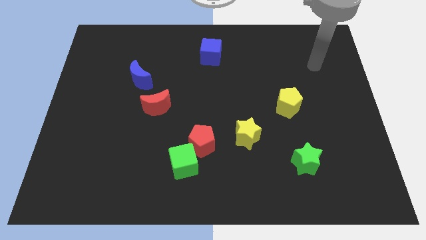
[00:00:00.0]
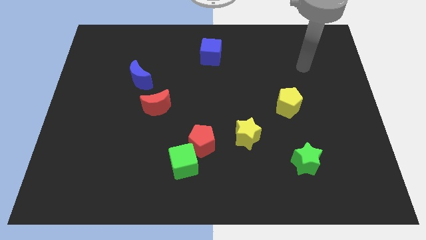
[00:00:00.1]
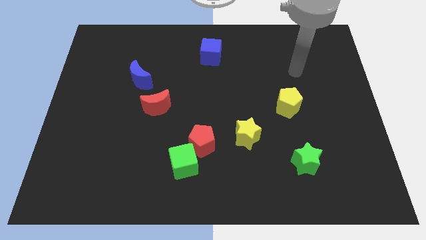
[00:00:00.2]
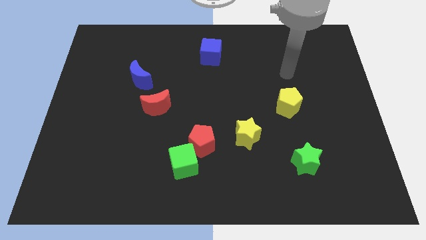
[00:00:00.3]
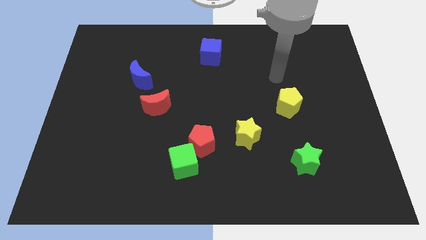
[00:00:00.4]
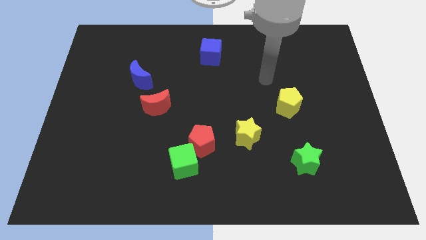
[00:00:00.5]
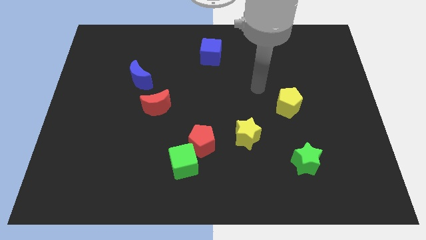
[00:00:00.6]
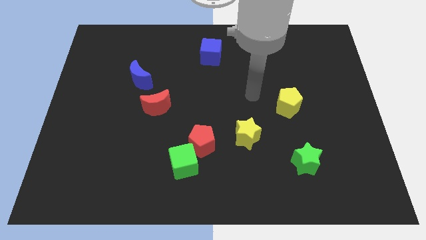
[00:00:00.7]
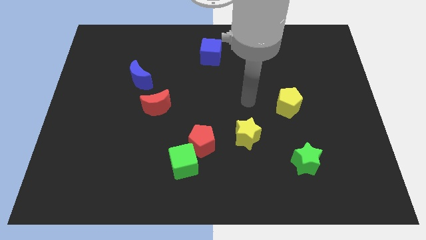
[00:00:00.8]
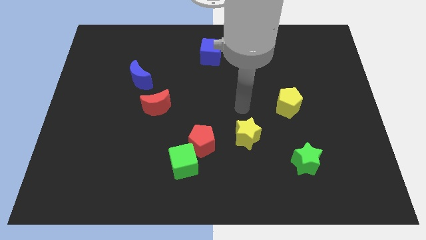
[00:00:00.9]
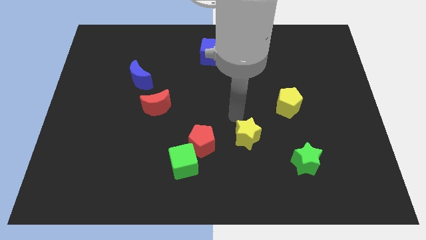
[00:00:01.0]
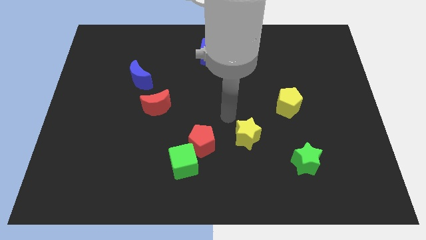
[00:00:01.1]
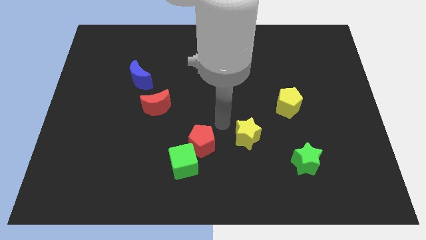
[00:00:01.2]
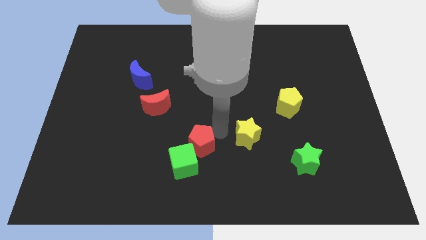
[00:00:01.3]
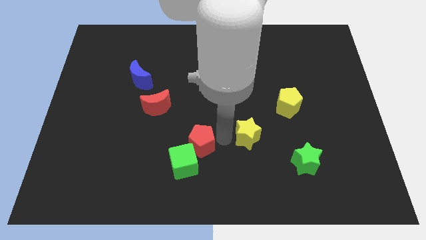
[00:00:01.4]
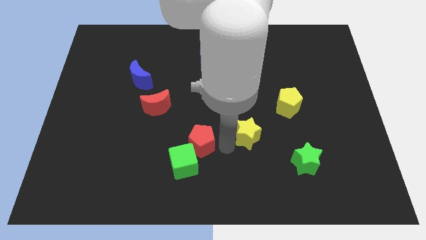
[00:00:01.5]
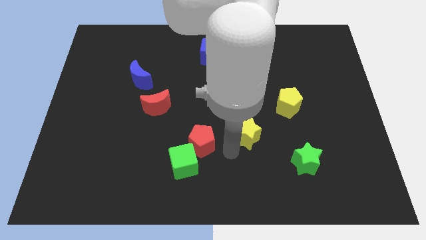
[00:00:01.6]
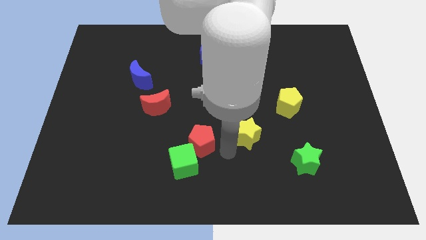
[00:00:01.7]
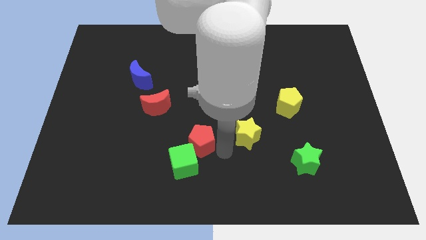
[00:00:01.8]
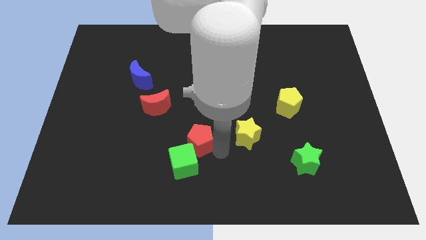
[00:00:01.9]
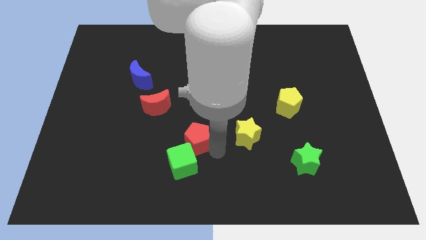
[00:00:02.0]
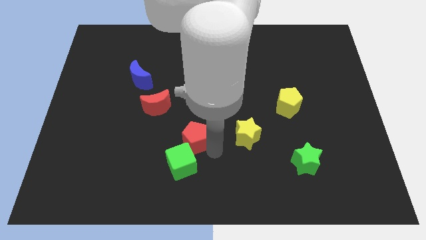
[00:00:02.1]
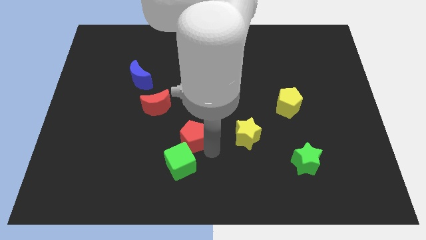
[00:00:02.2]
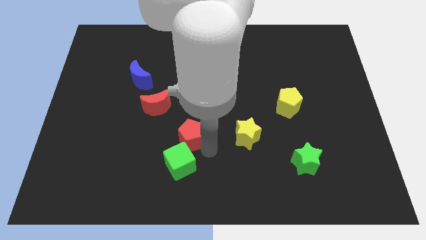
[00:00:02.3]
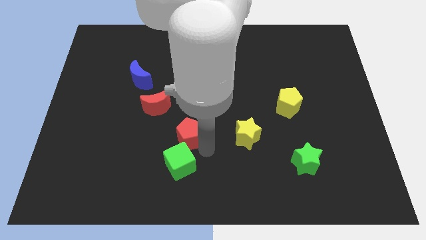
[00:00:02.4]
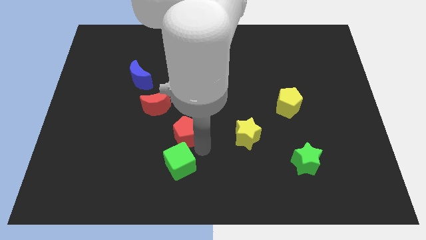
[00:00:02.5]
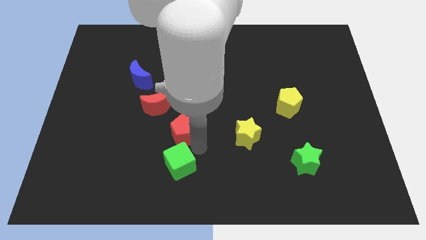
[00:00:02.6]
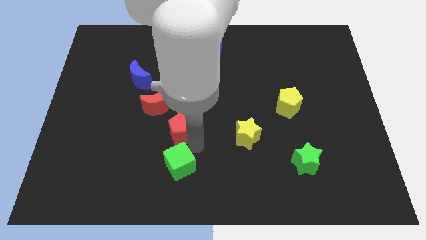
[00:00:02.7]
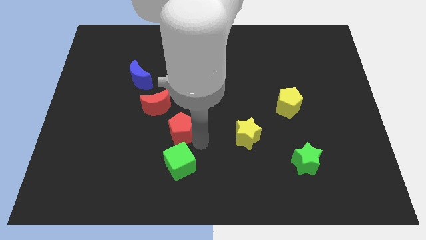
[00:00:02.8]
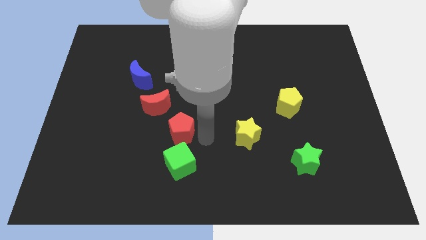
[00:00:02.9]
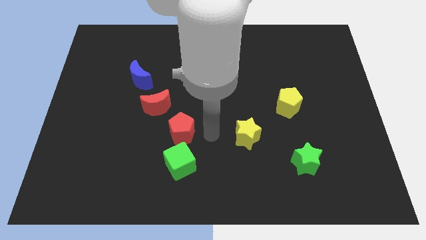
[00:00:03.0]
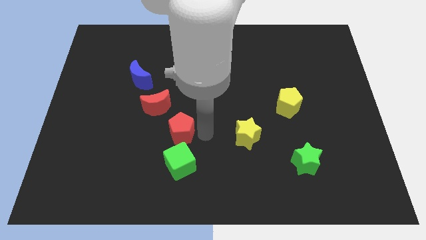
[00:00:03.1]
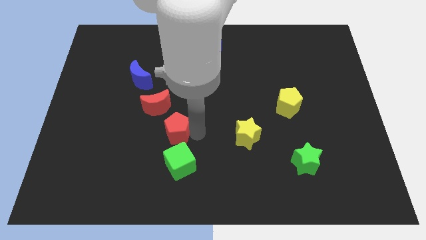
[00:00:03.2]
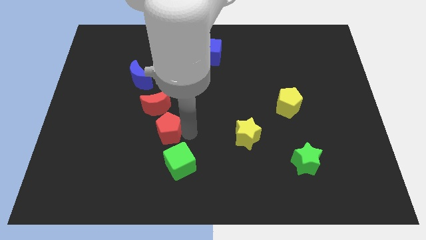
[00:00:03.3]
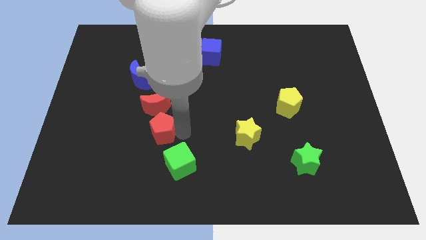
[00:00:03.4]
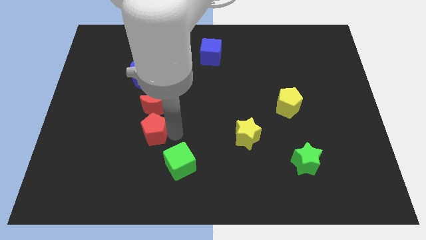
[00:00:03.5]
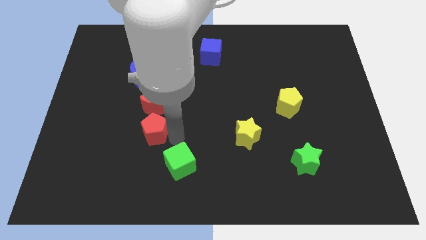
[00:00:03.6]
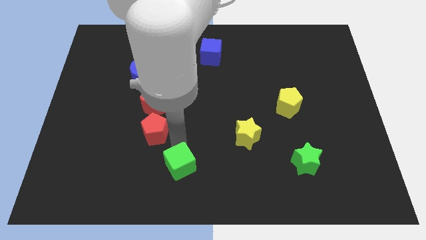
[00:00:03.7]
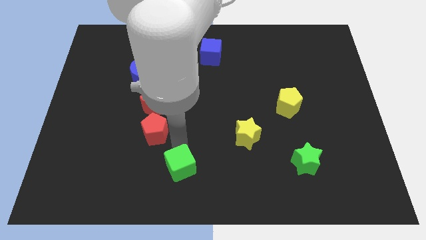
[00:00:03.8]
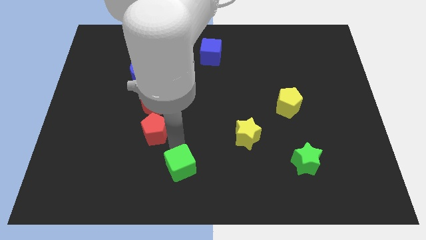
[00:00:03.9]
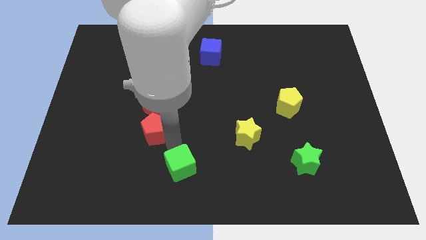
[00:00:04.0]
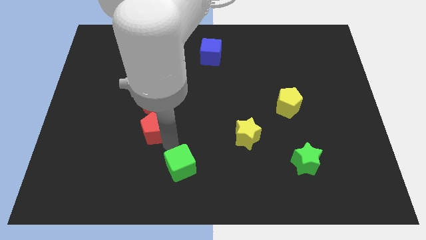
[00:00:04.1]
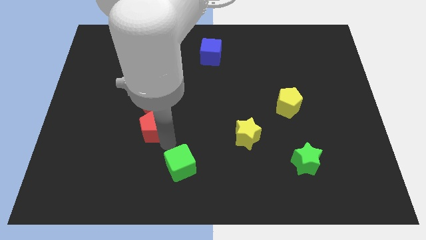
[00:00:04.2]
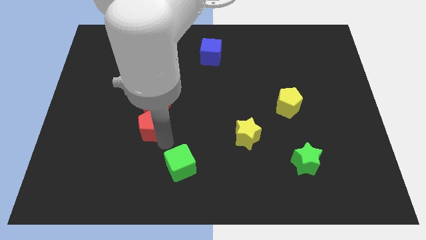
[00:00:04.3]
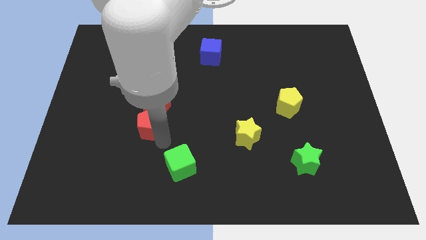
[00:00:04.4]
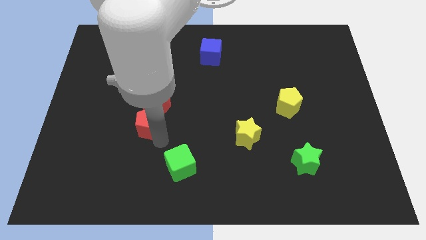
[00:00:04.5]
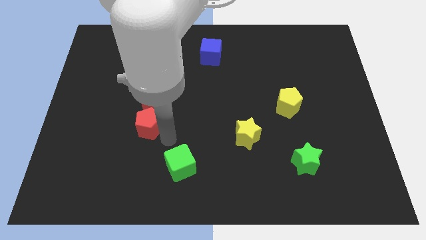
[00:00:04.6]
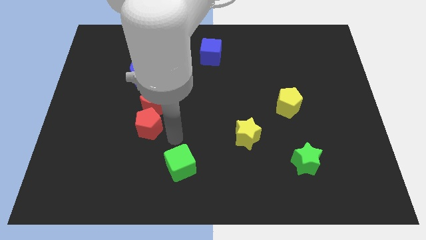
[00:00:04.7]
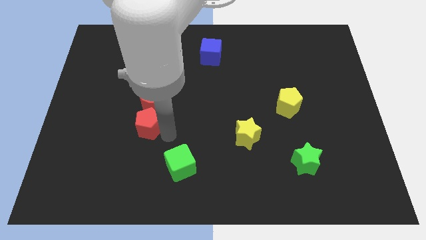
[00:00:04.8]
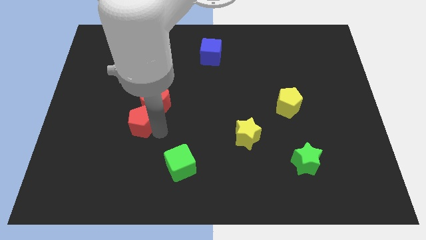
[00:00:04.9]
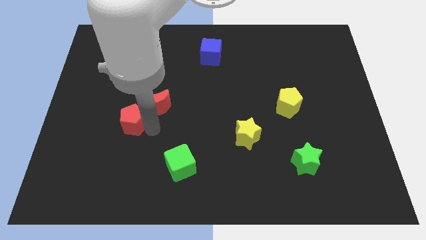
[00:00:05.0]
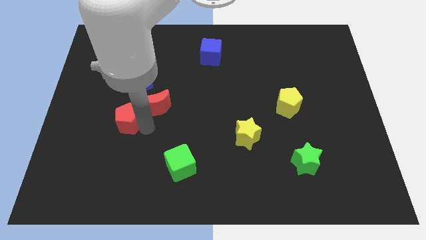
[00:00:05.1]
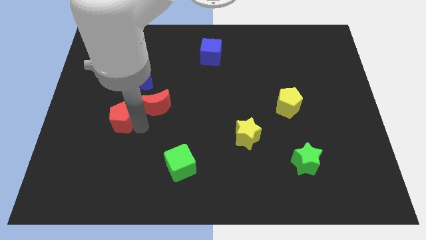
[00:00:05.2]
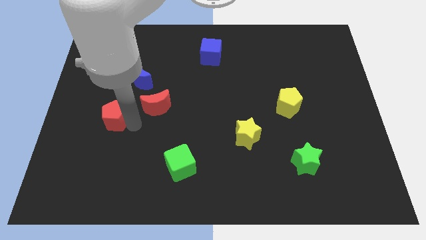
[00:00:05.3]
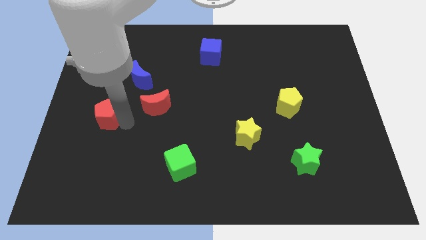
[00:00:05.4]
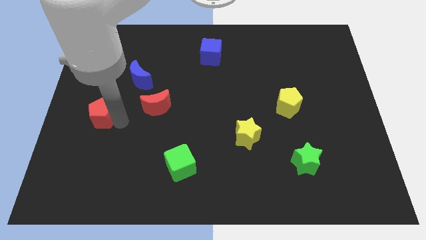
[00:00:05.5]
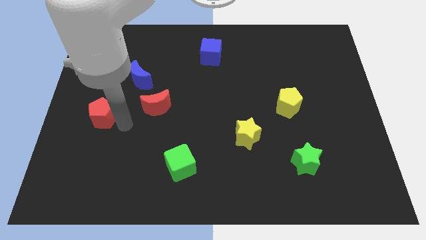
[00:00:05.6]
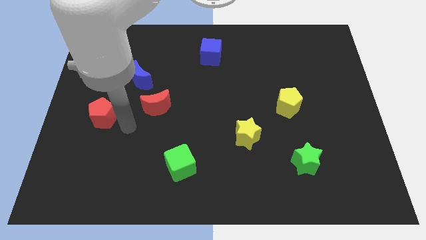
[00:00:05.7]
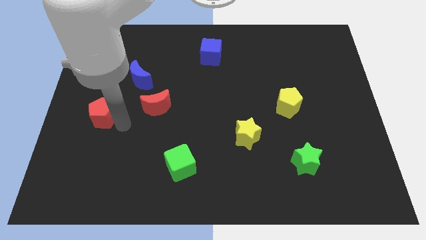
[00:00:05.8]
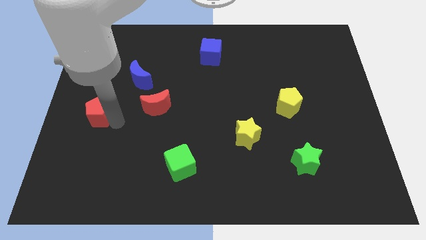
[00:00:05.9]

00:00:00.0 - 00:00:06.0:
move the red pentagon to the left side

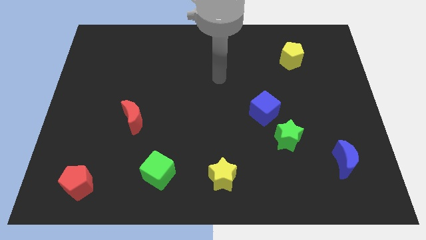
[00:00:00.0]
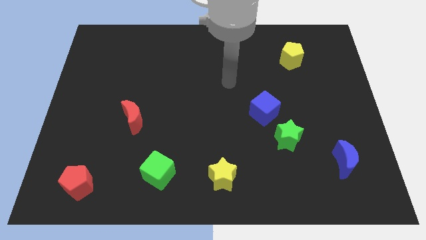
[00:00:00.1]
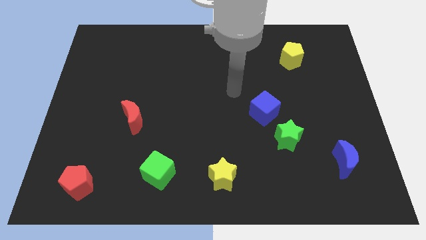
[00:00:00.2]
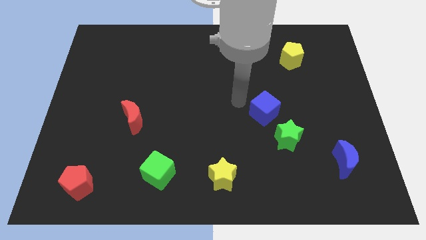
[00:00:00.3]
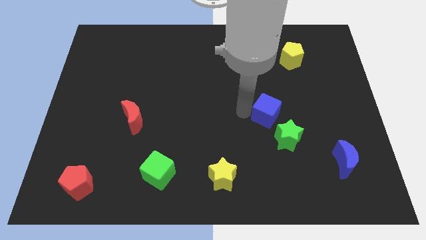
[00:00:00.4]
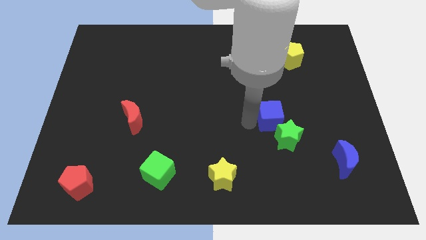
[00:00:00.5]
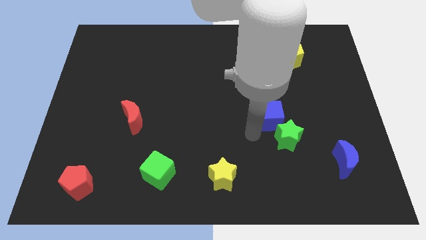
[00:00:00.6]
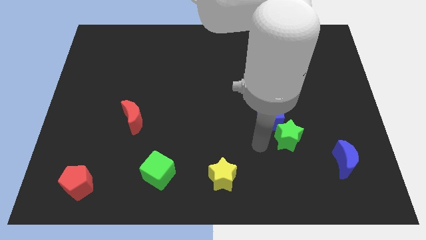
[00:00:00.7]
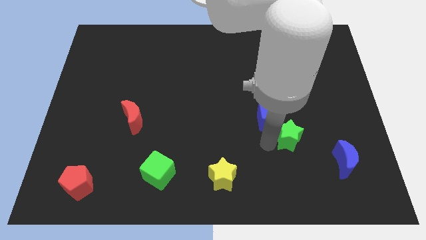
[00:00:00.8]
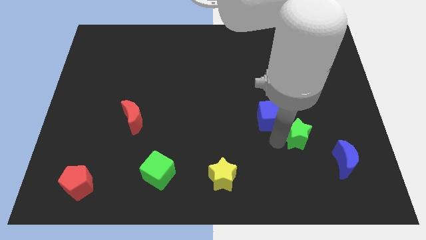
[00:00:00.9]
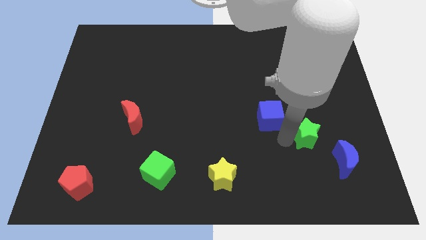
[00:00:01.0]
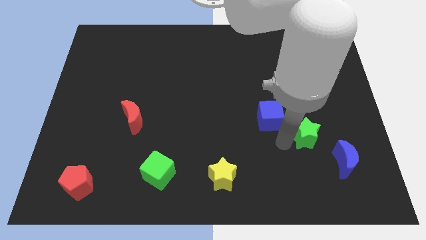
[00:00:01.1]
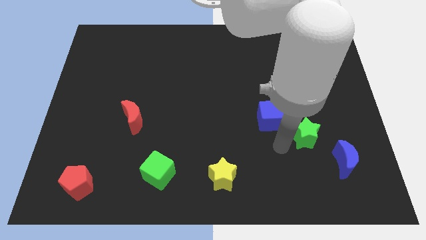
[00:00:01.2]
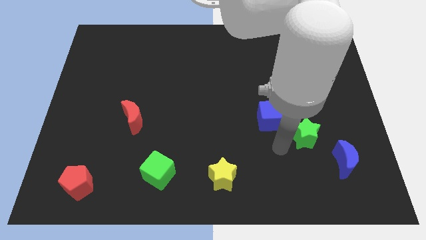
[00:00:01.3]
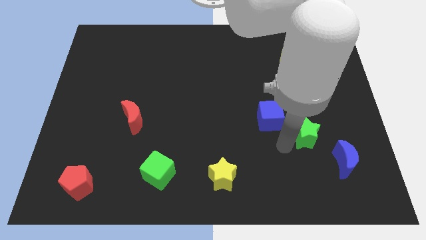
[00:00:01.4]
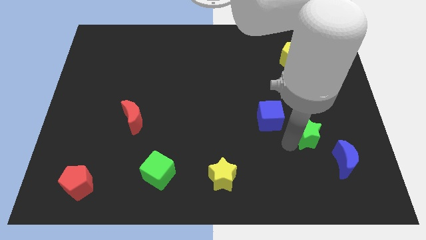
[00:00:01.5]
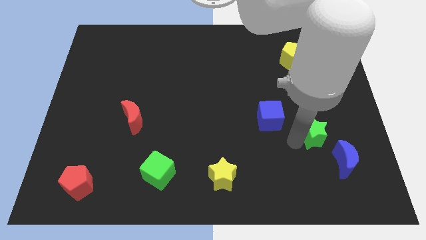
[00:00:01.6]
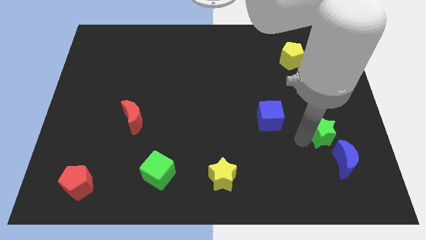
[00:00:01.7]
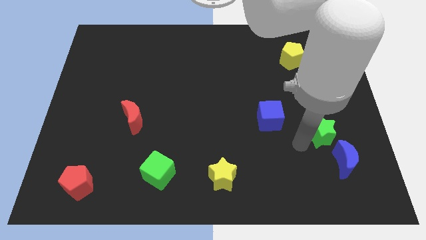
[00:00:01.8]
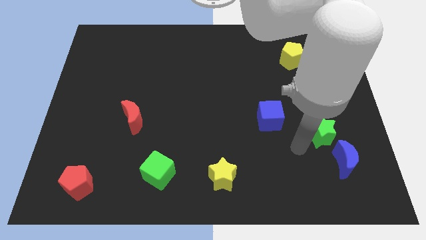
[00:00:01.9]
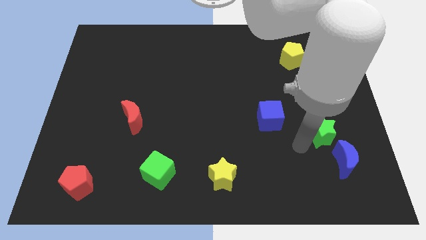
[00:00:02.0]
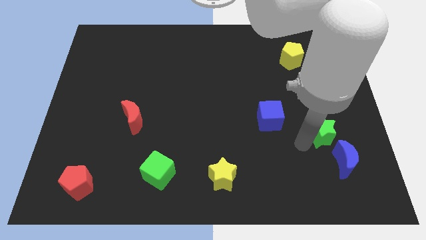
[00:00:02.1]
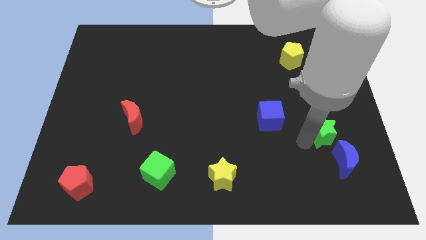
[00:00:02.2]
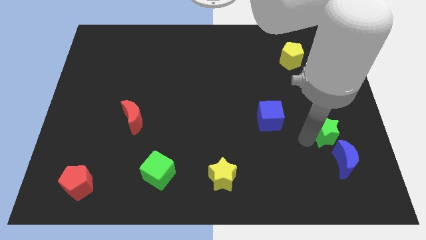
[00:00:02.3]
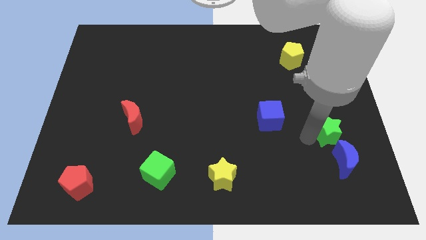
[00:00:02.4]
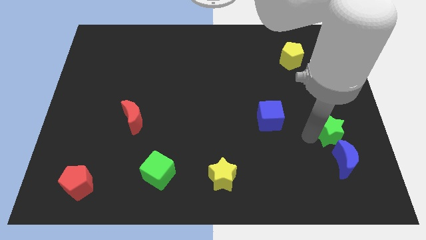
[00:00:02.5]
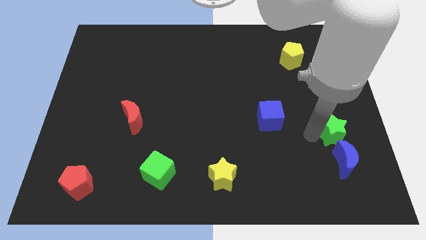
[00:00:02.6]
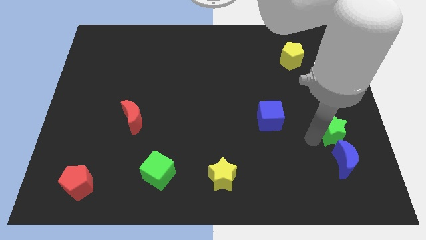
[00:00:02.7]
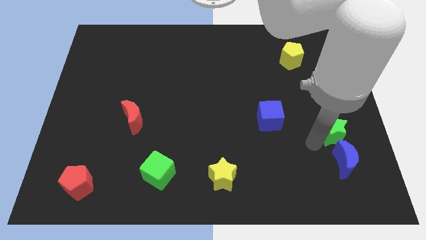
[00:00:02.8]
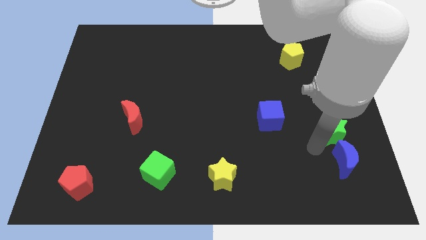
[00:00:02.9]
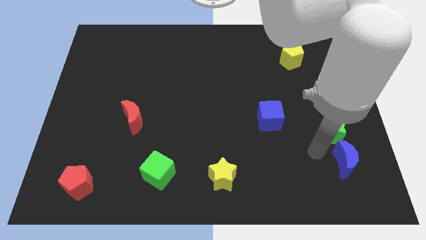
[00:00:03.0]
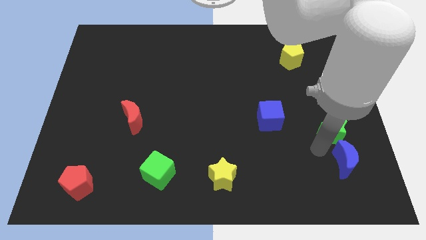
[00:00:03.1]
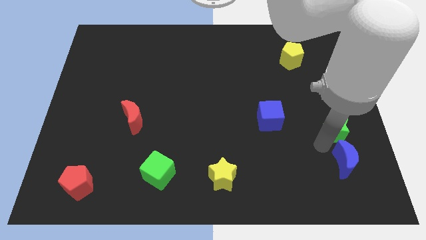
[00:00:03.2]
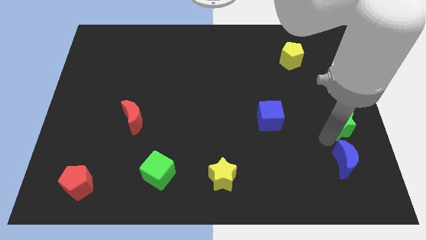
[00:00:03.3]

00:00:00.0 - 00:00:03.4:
move the green star to the right side
